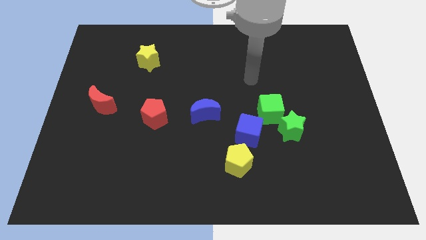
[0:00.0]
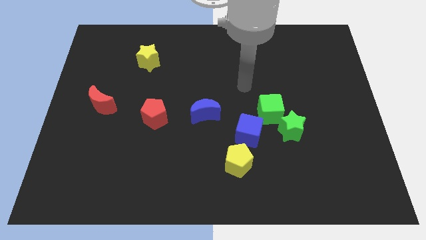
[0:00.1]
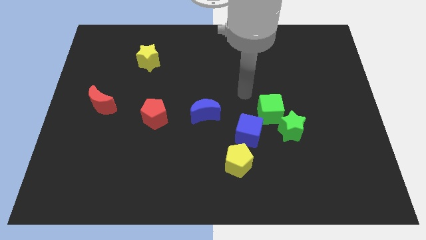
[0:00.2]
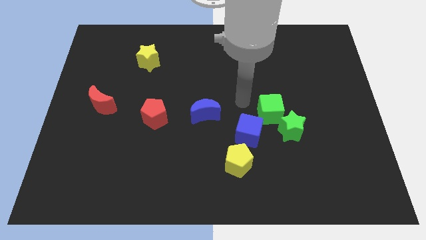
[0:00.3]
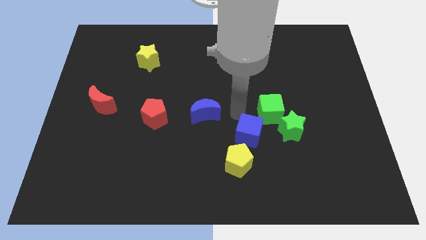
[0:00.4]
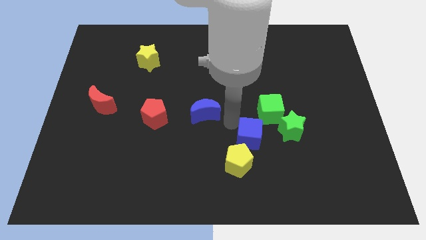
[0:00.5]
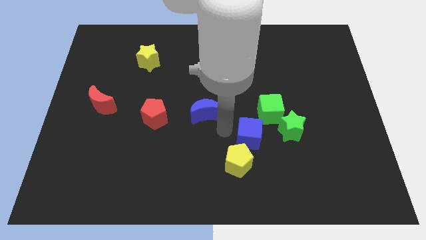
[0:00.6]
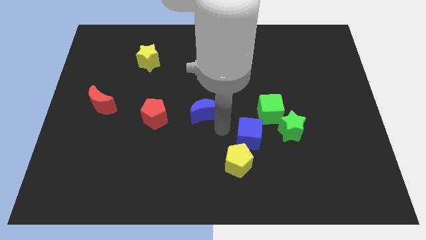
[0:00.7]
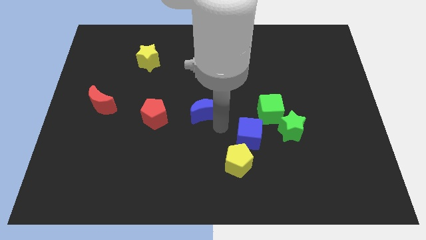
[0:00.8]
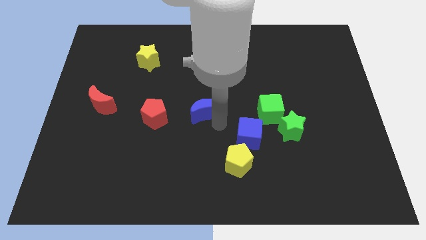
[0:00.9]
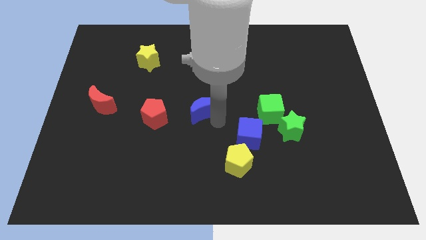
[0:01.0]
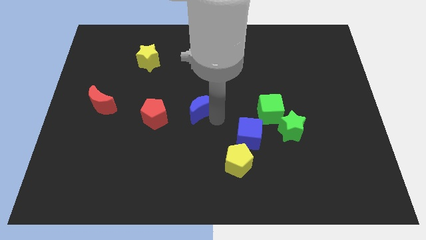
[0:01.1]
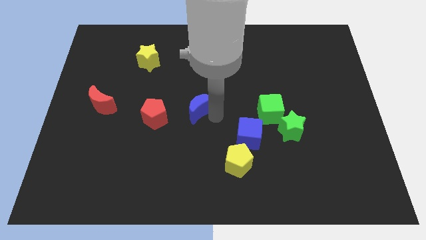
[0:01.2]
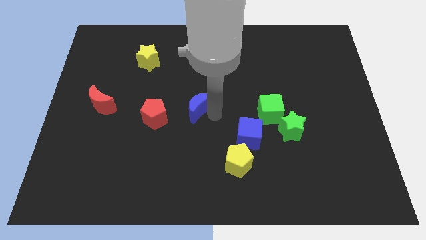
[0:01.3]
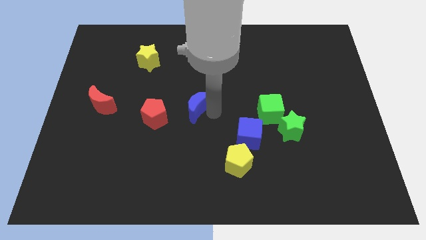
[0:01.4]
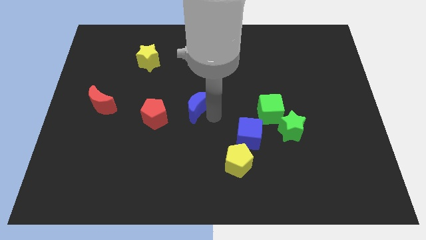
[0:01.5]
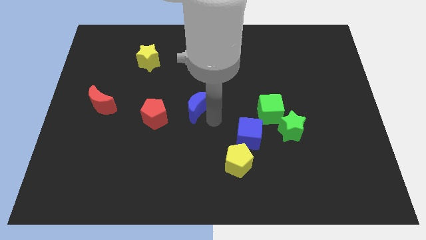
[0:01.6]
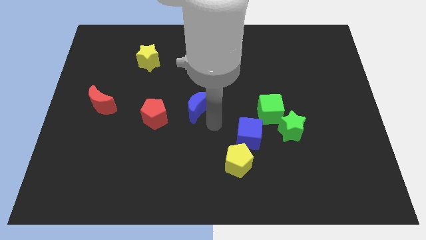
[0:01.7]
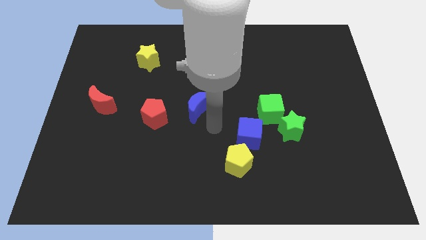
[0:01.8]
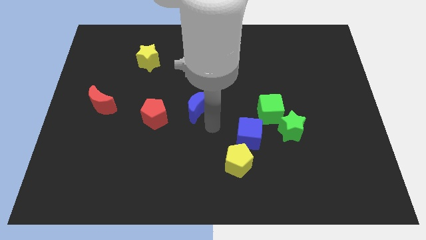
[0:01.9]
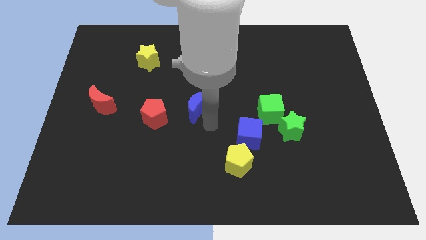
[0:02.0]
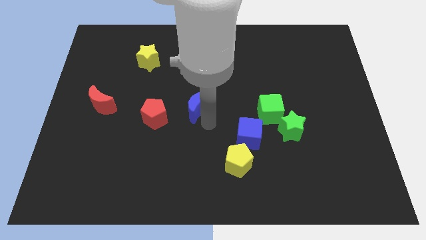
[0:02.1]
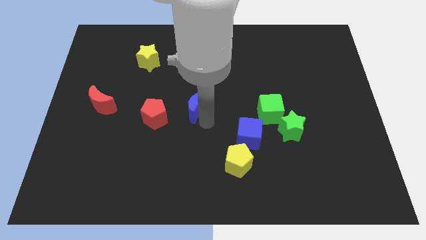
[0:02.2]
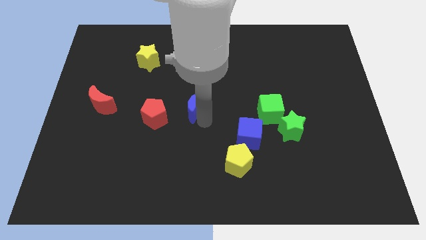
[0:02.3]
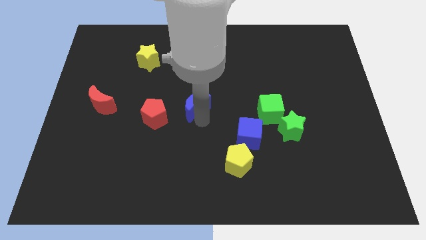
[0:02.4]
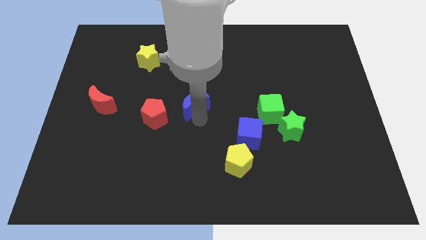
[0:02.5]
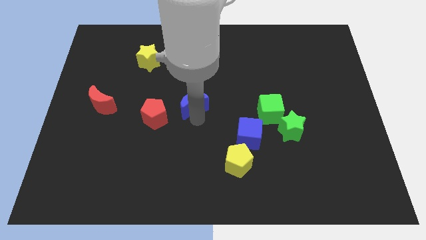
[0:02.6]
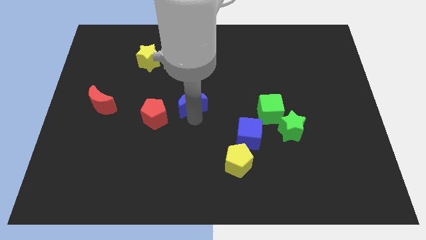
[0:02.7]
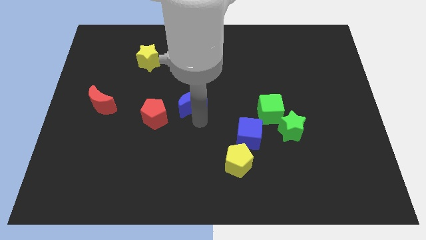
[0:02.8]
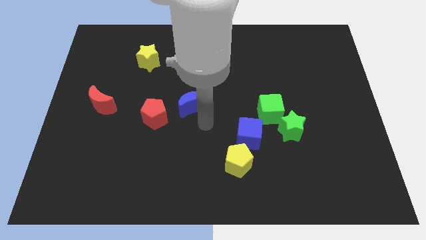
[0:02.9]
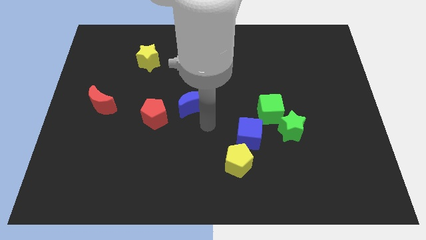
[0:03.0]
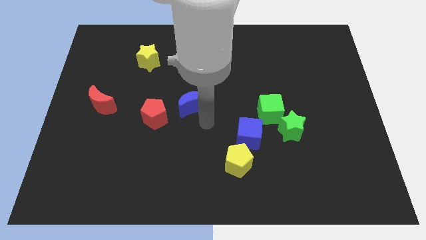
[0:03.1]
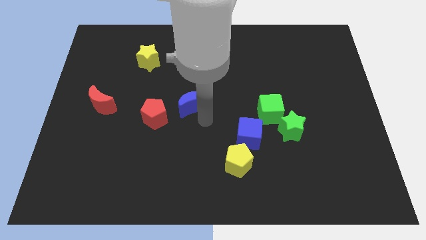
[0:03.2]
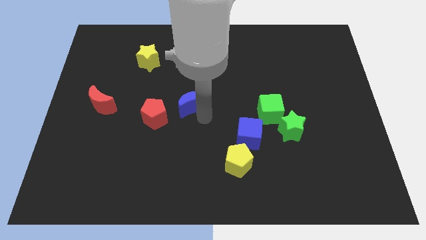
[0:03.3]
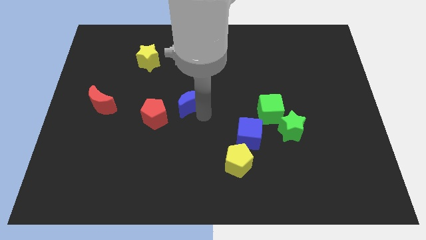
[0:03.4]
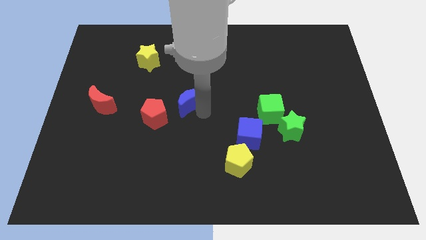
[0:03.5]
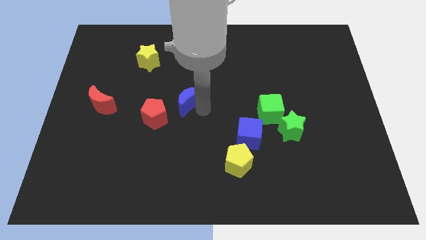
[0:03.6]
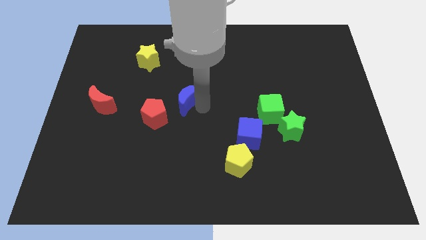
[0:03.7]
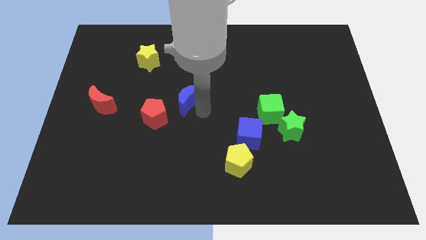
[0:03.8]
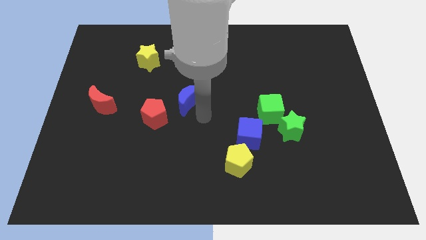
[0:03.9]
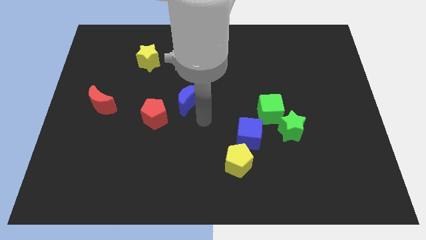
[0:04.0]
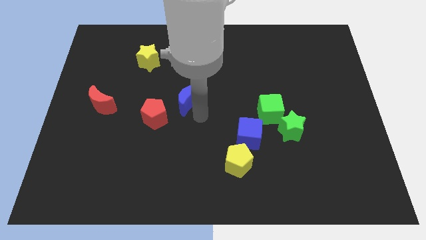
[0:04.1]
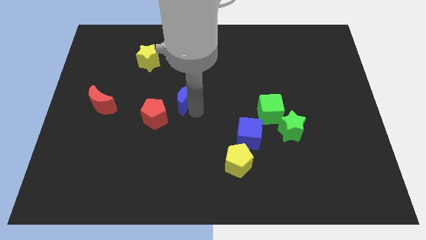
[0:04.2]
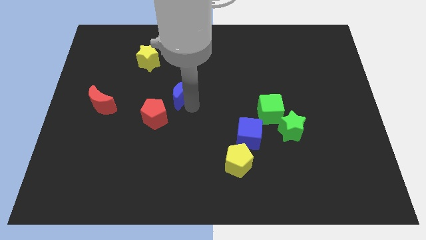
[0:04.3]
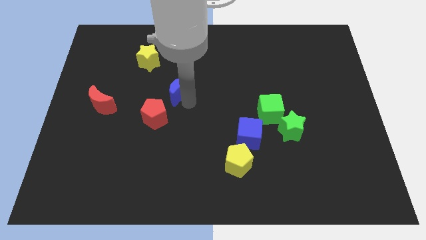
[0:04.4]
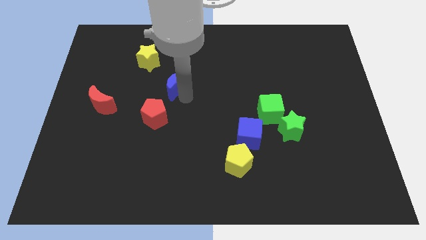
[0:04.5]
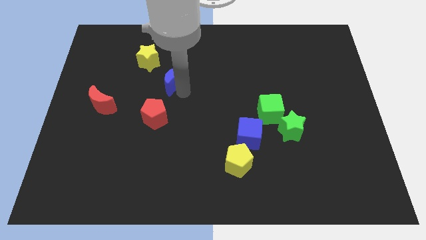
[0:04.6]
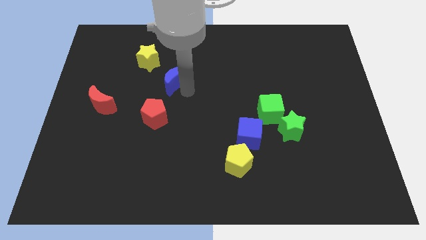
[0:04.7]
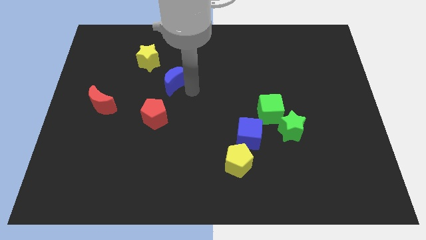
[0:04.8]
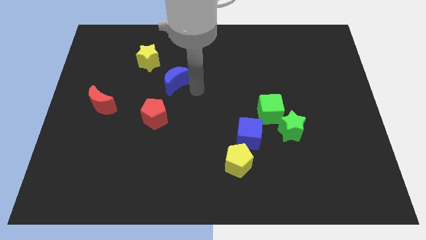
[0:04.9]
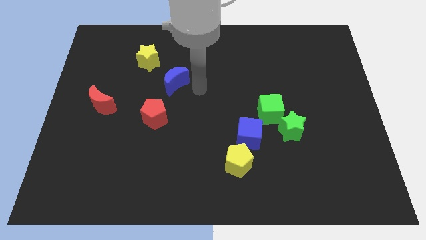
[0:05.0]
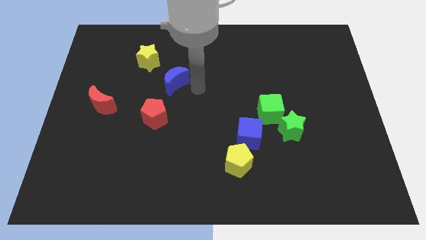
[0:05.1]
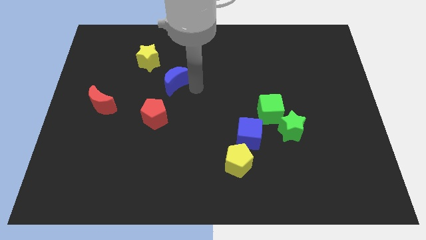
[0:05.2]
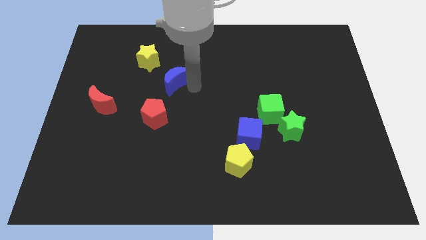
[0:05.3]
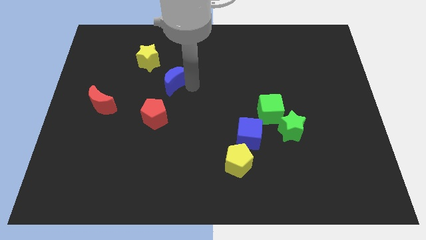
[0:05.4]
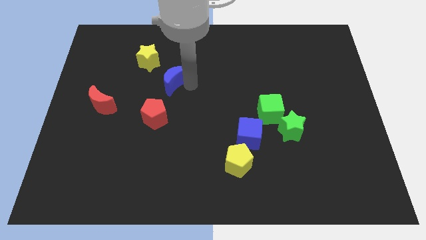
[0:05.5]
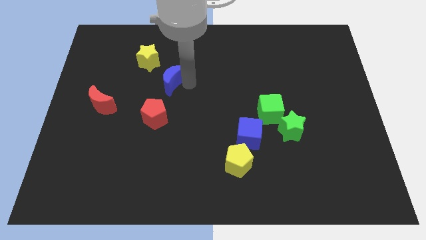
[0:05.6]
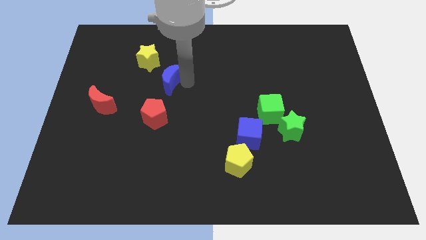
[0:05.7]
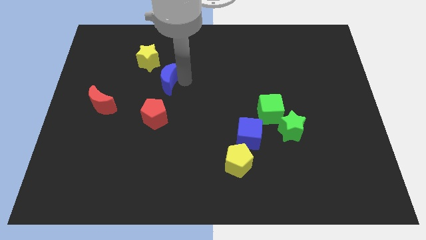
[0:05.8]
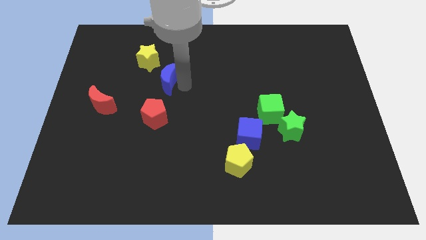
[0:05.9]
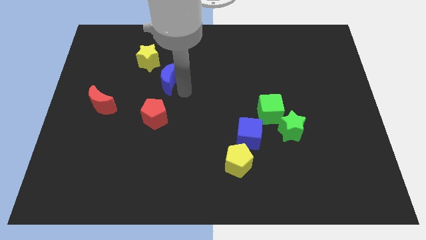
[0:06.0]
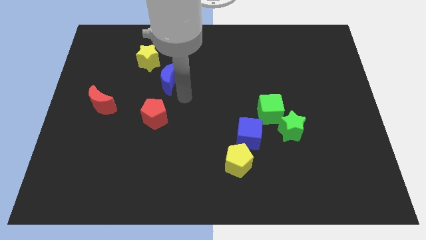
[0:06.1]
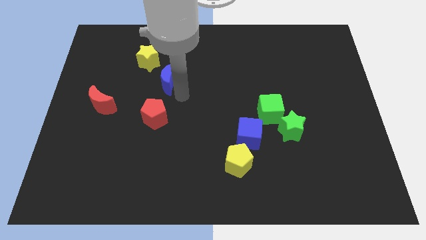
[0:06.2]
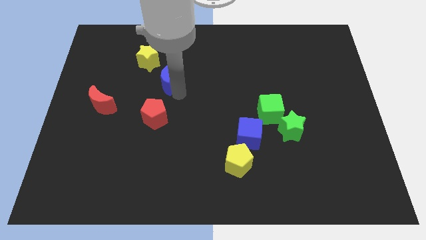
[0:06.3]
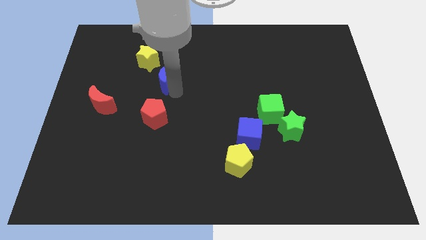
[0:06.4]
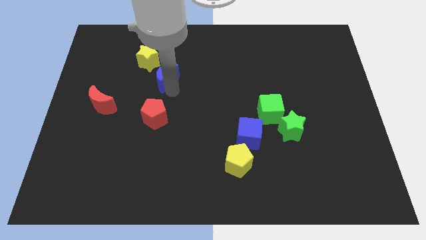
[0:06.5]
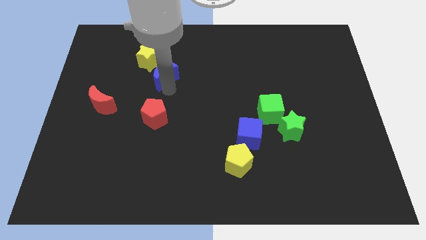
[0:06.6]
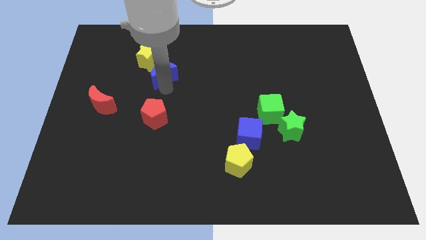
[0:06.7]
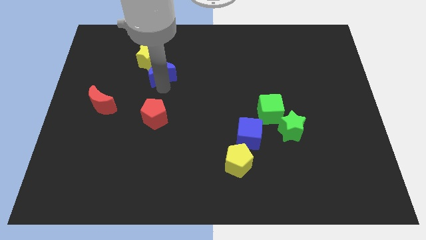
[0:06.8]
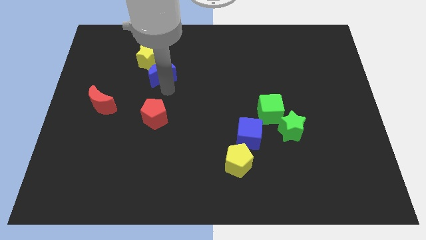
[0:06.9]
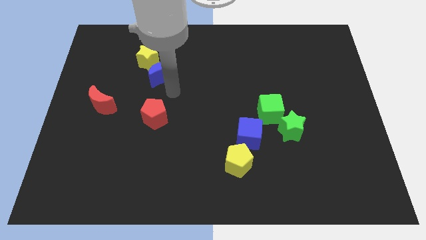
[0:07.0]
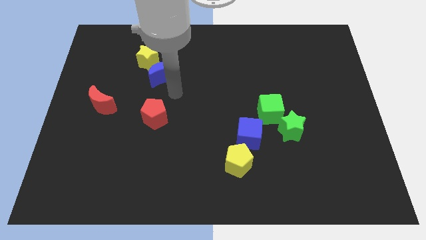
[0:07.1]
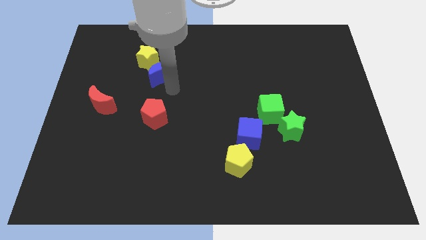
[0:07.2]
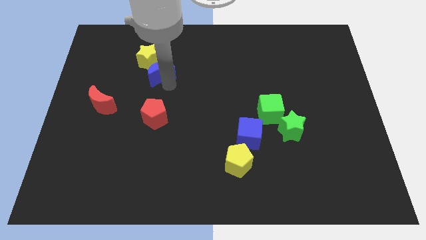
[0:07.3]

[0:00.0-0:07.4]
move the blue moon to the yellow star
